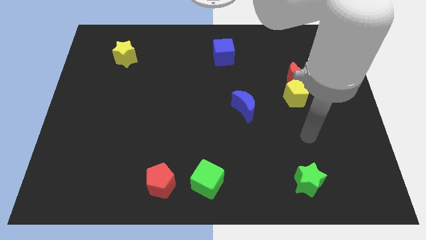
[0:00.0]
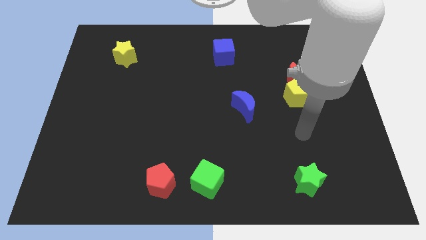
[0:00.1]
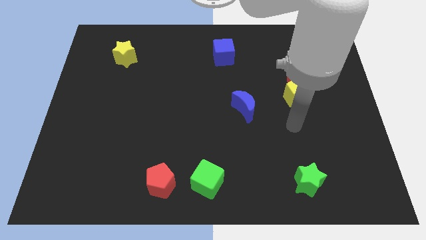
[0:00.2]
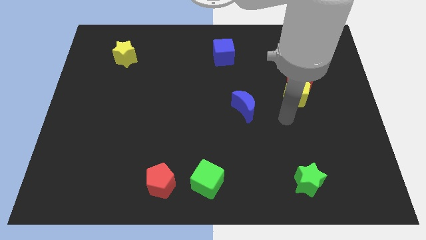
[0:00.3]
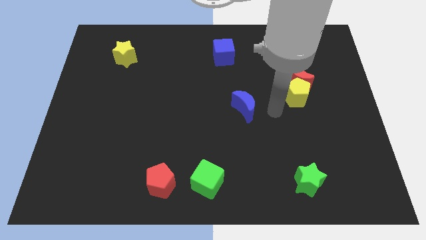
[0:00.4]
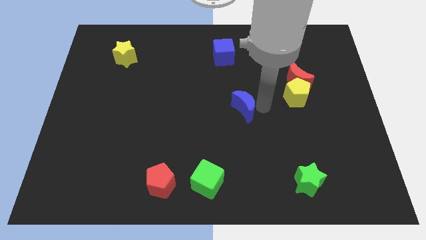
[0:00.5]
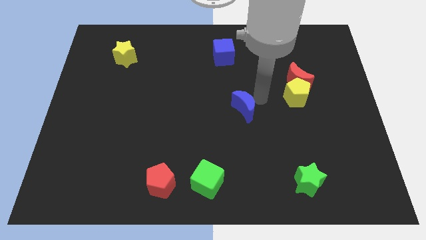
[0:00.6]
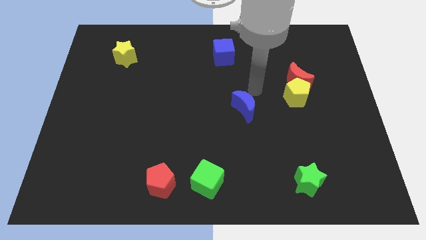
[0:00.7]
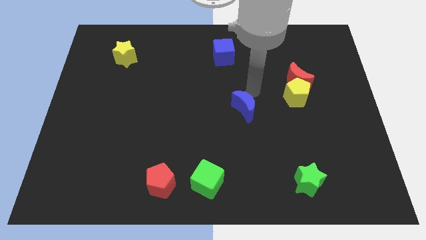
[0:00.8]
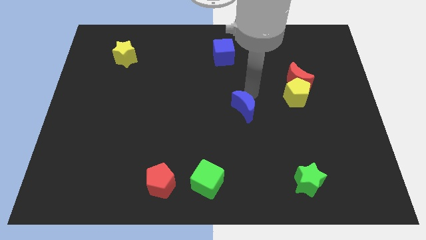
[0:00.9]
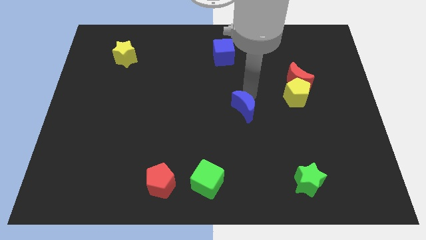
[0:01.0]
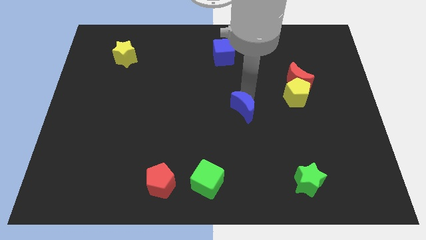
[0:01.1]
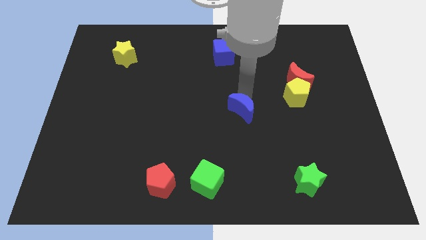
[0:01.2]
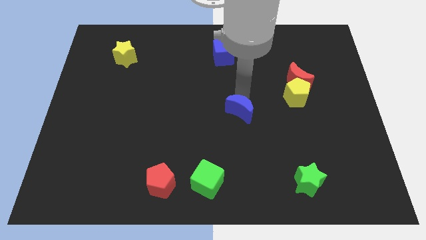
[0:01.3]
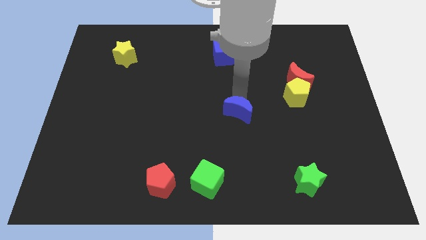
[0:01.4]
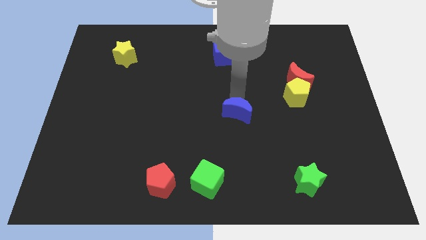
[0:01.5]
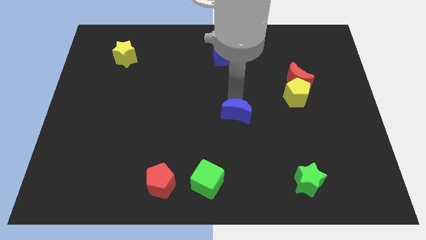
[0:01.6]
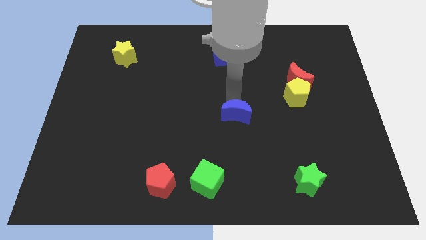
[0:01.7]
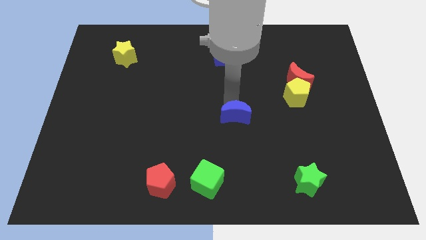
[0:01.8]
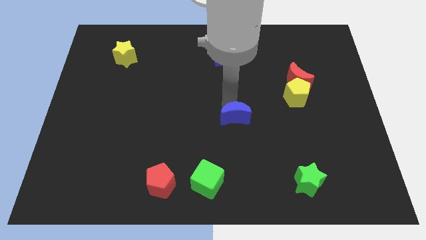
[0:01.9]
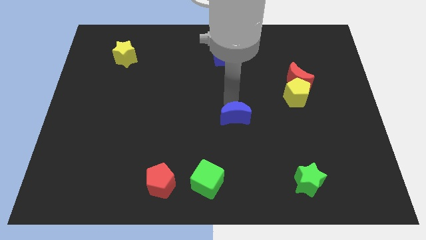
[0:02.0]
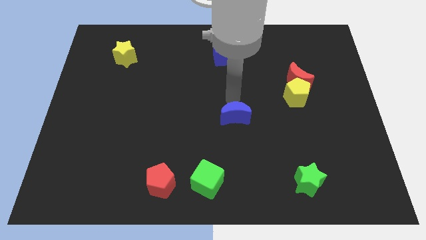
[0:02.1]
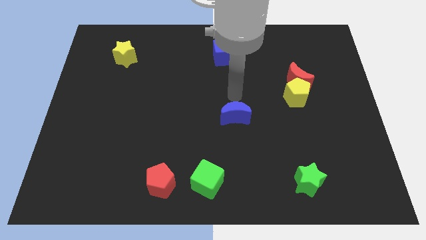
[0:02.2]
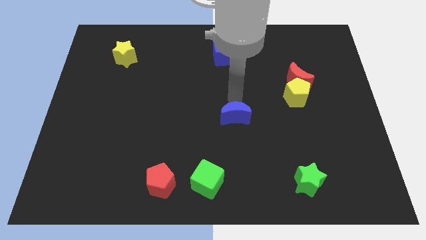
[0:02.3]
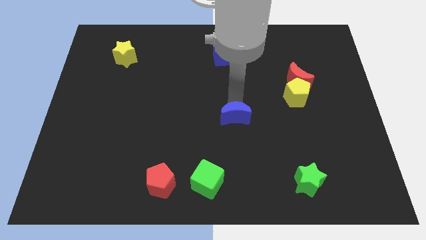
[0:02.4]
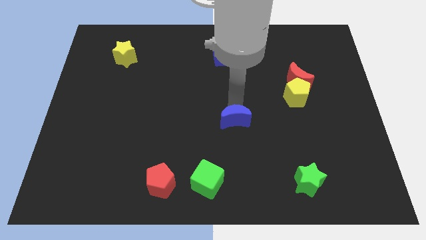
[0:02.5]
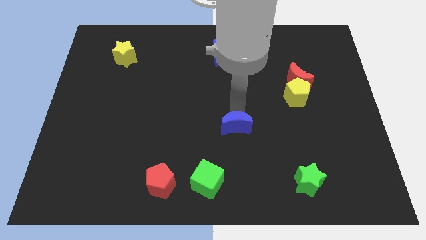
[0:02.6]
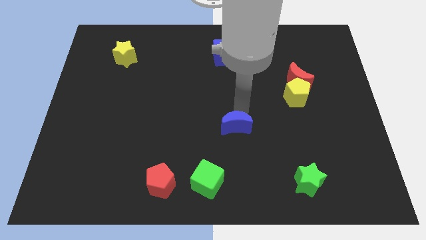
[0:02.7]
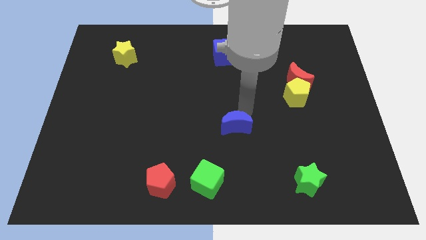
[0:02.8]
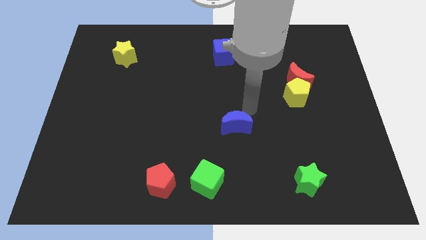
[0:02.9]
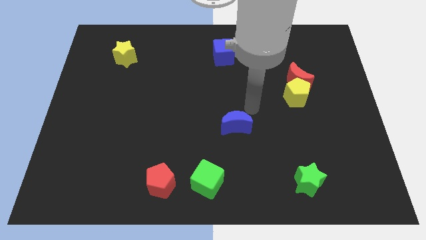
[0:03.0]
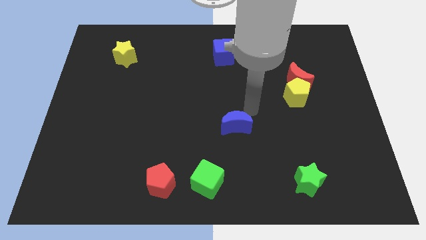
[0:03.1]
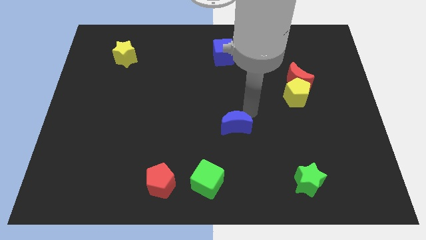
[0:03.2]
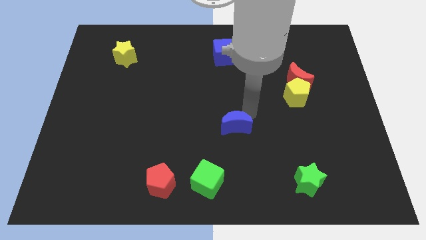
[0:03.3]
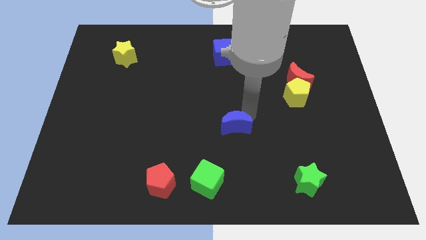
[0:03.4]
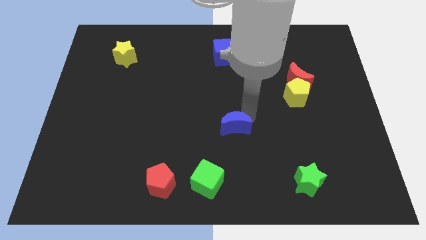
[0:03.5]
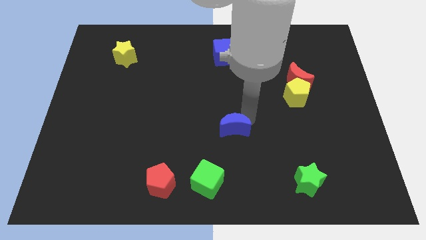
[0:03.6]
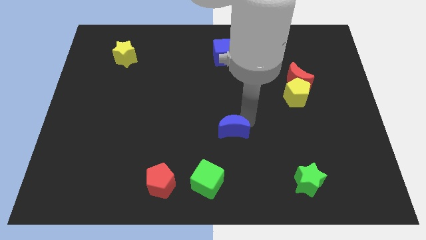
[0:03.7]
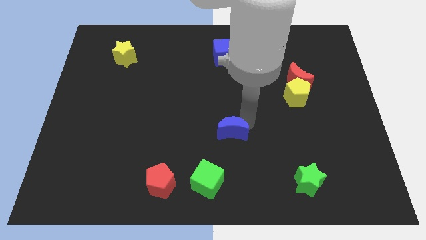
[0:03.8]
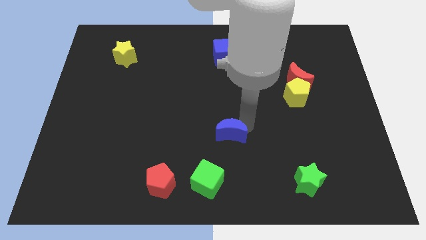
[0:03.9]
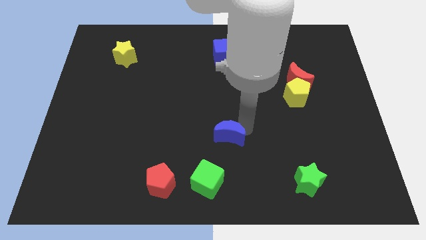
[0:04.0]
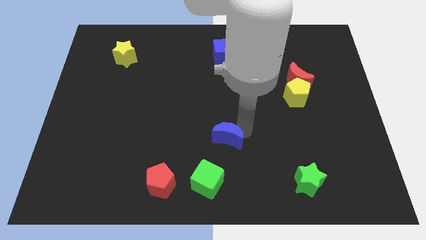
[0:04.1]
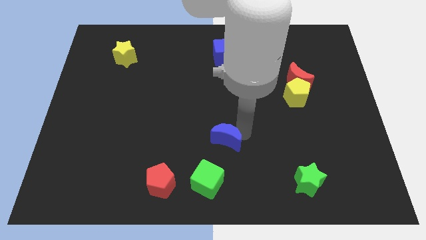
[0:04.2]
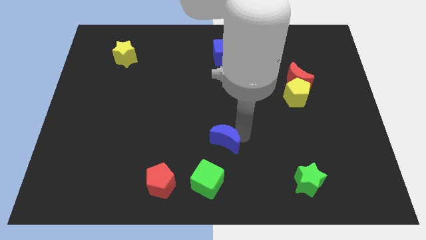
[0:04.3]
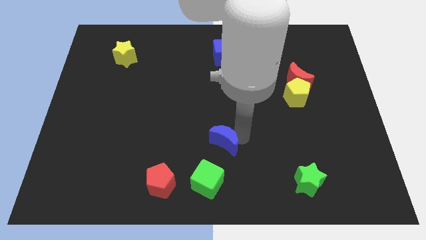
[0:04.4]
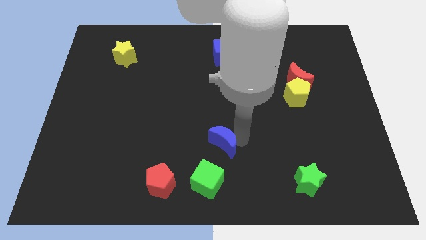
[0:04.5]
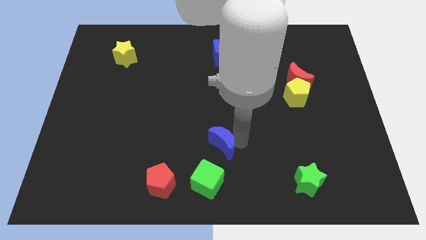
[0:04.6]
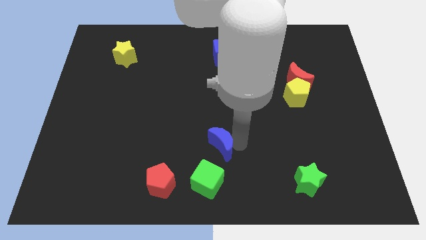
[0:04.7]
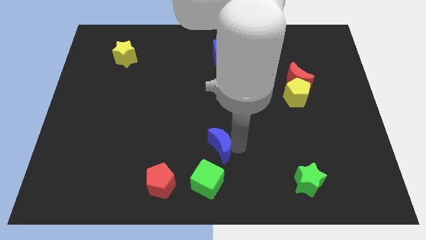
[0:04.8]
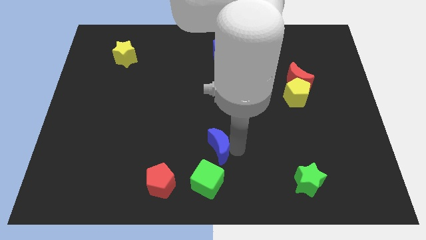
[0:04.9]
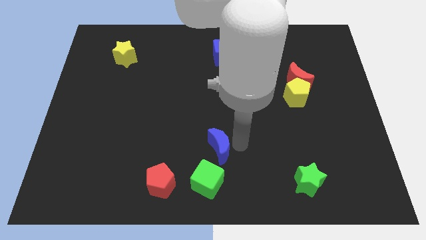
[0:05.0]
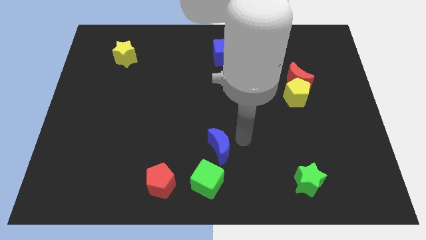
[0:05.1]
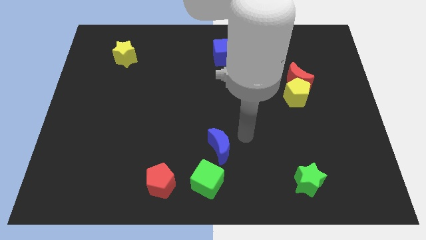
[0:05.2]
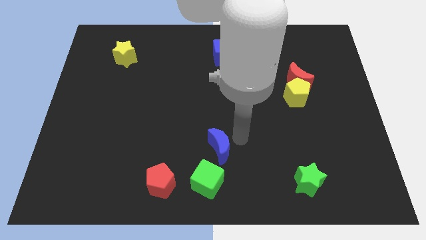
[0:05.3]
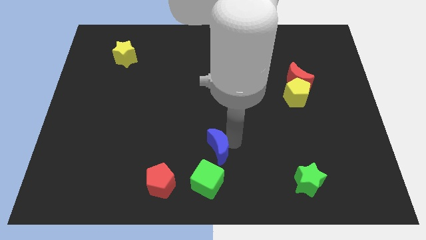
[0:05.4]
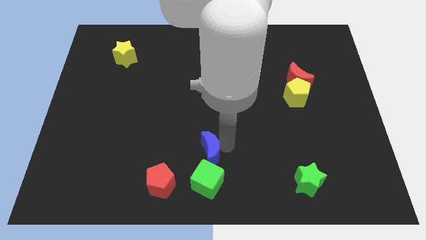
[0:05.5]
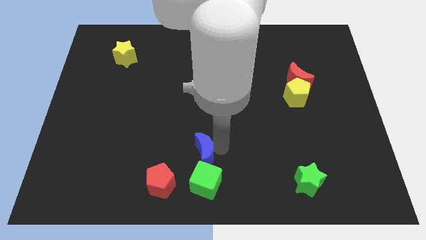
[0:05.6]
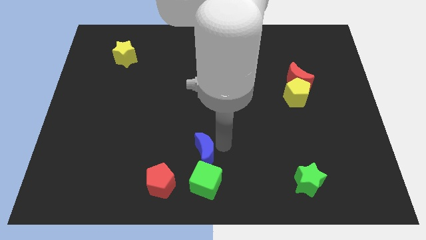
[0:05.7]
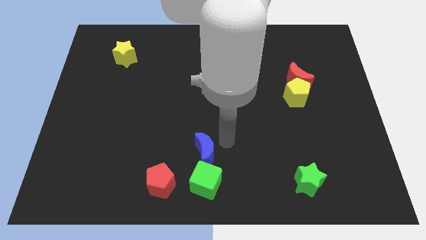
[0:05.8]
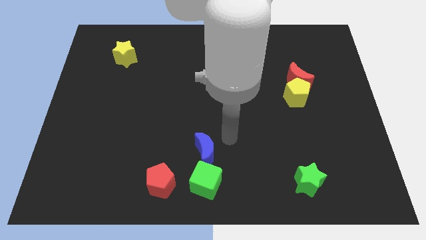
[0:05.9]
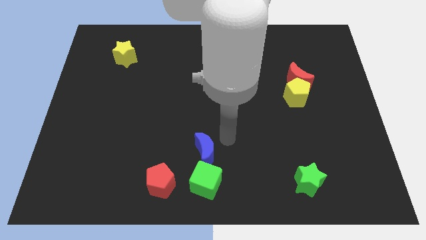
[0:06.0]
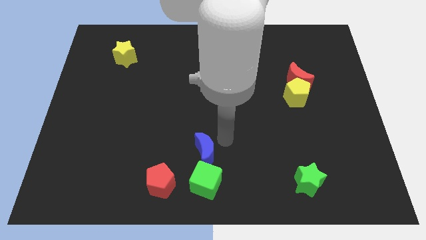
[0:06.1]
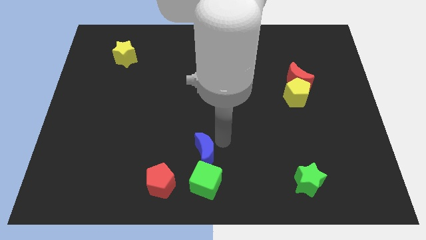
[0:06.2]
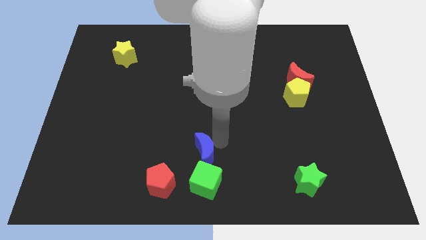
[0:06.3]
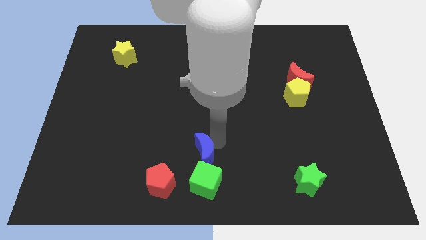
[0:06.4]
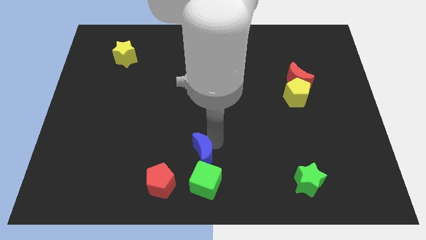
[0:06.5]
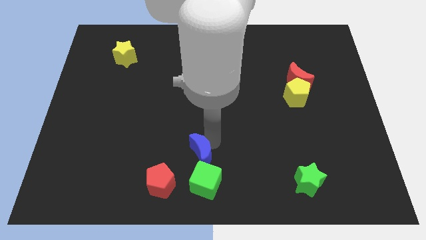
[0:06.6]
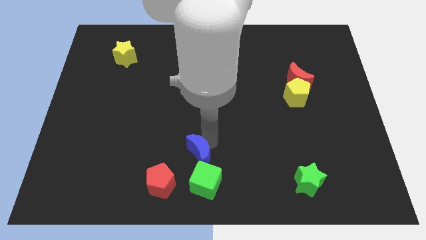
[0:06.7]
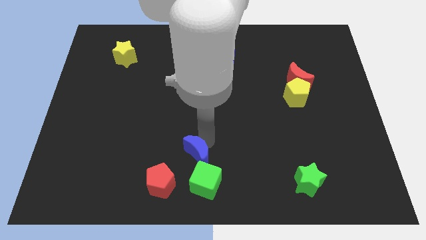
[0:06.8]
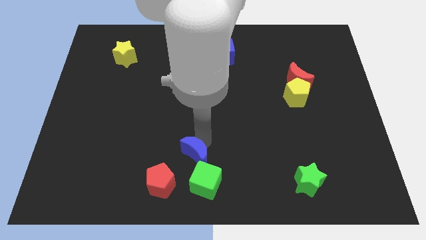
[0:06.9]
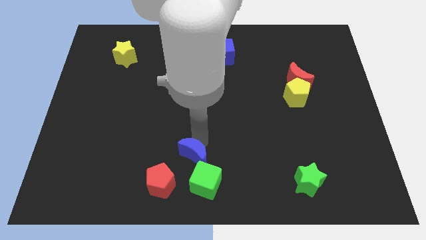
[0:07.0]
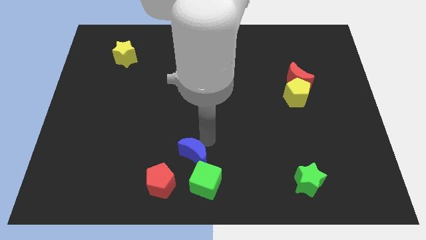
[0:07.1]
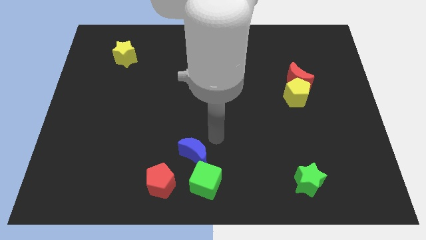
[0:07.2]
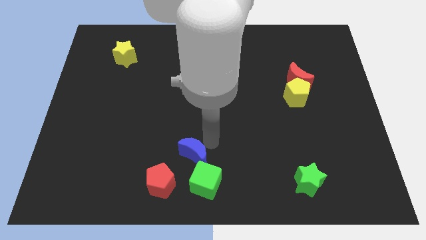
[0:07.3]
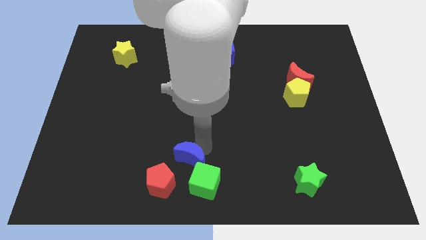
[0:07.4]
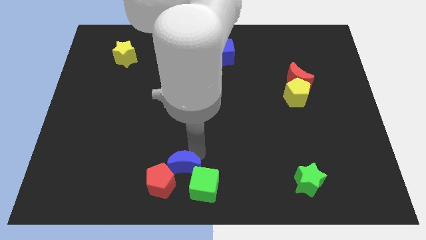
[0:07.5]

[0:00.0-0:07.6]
push the blue moon to the red pentagon
